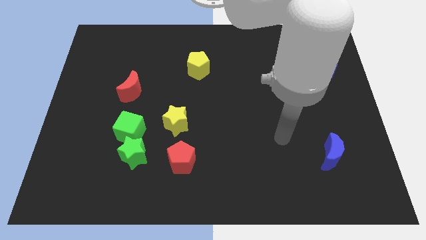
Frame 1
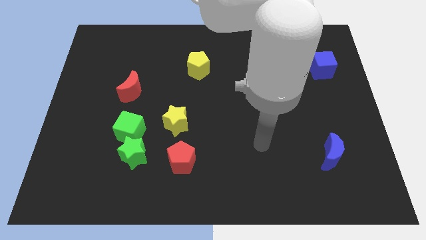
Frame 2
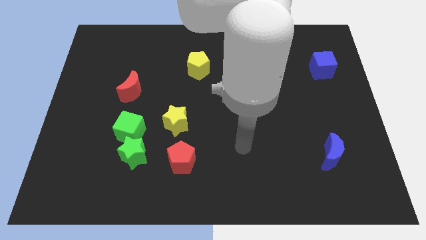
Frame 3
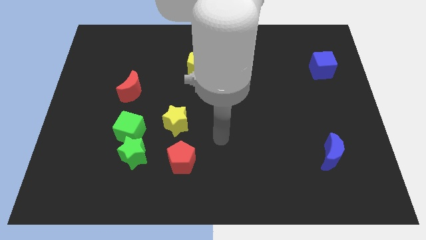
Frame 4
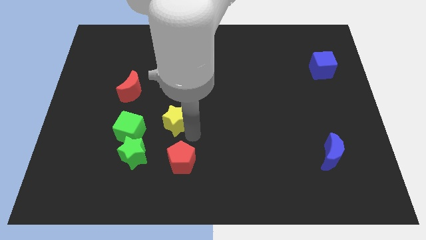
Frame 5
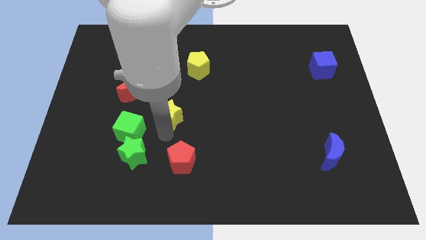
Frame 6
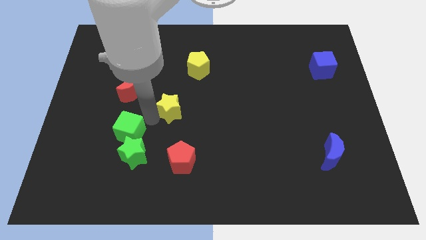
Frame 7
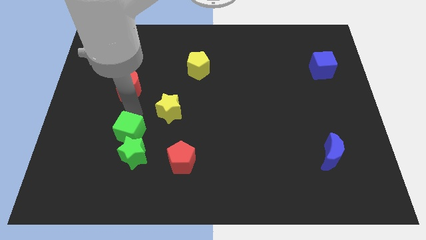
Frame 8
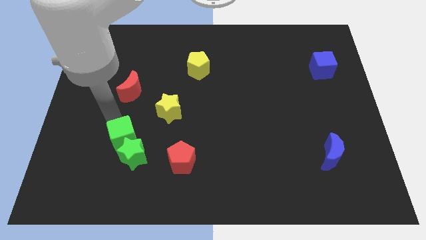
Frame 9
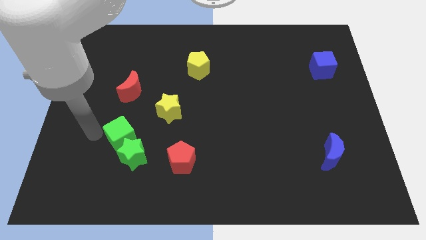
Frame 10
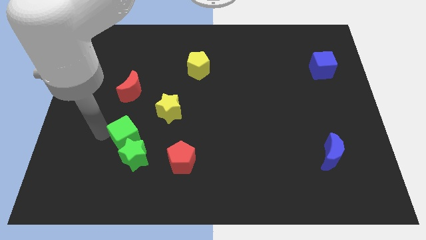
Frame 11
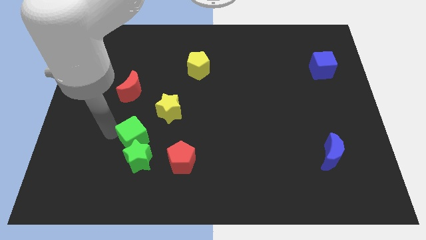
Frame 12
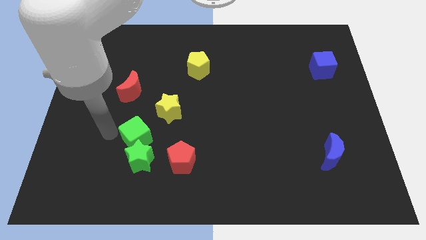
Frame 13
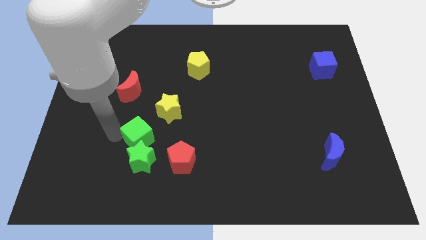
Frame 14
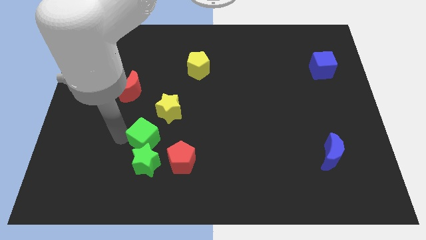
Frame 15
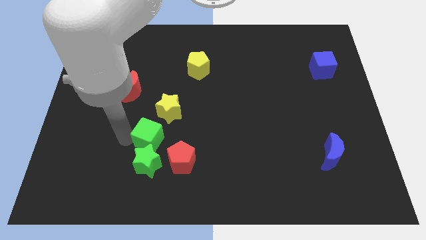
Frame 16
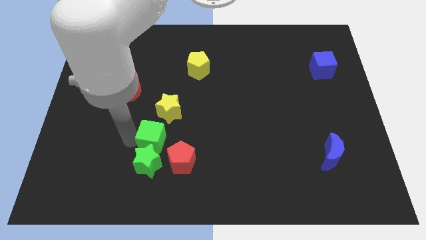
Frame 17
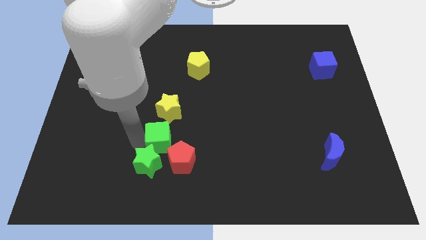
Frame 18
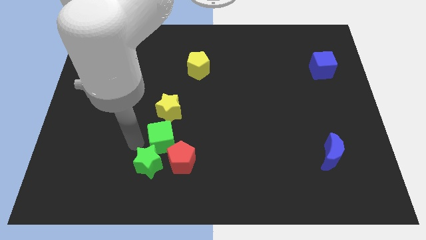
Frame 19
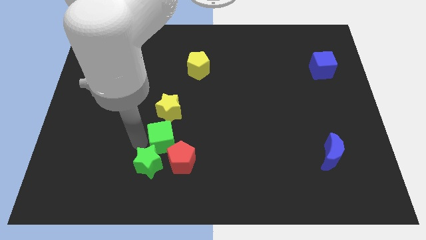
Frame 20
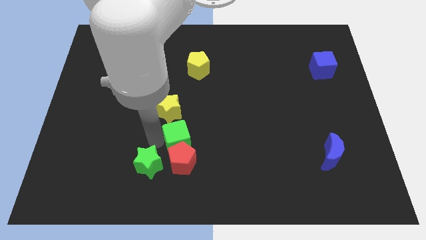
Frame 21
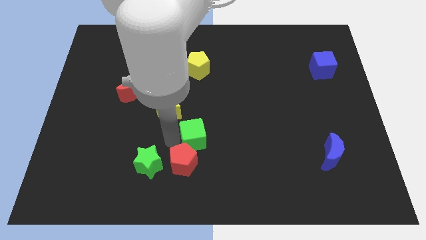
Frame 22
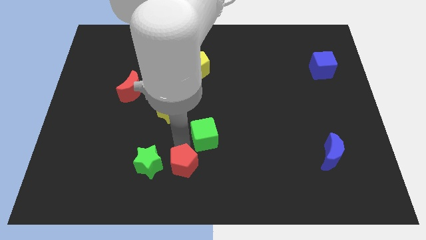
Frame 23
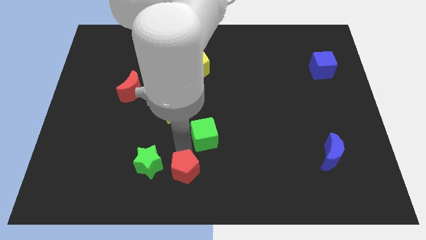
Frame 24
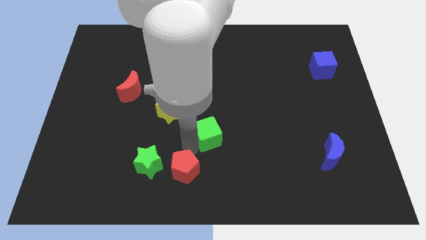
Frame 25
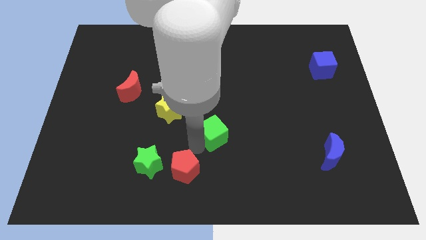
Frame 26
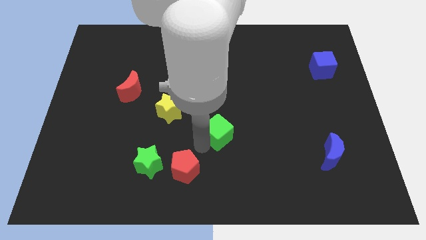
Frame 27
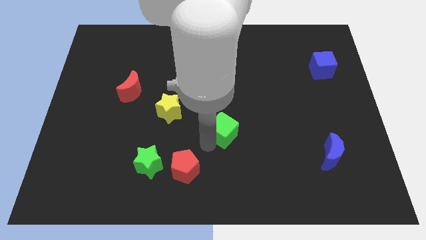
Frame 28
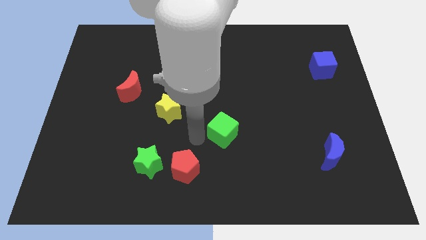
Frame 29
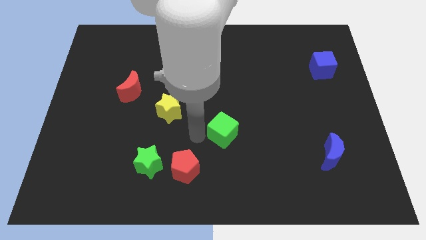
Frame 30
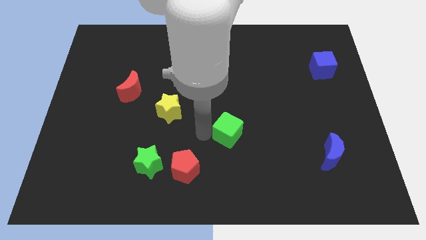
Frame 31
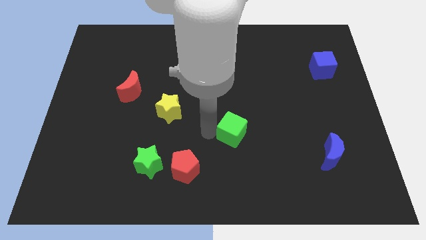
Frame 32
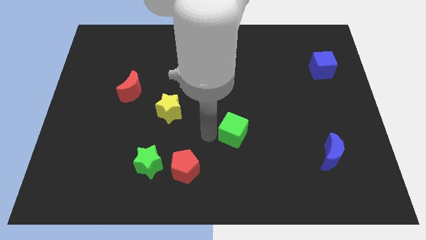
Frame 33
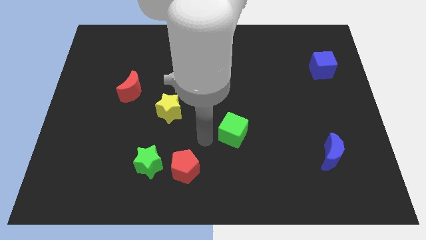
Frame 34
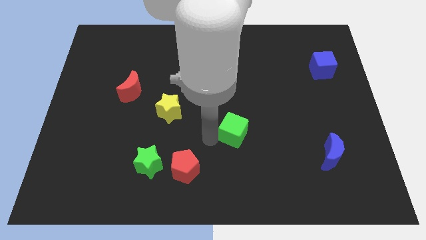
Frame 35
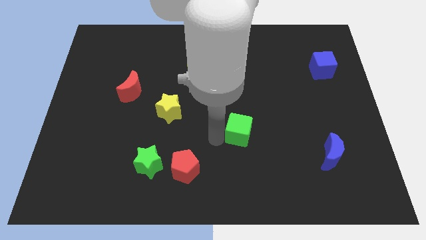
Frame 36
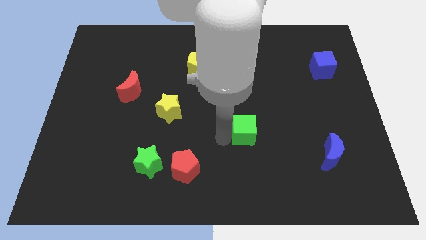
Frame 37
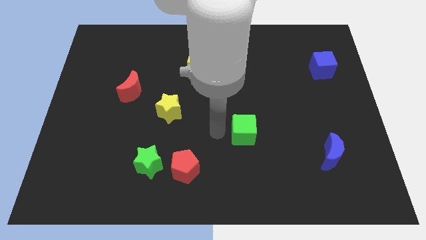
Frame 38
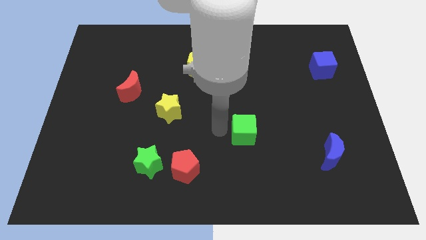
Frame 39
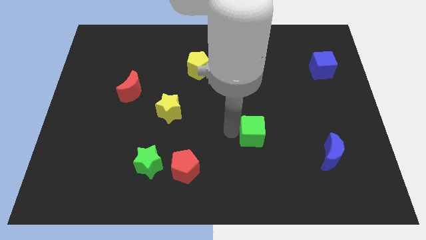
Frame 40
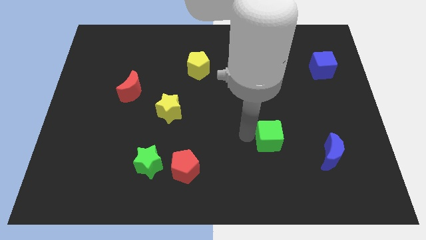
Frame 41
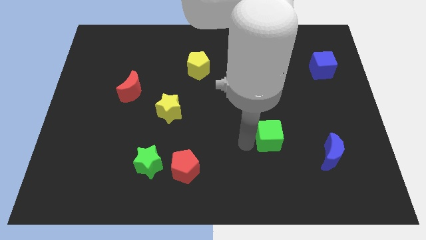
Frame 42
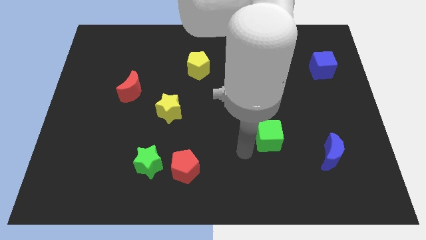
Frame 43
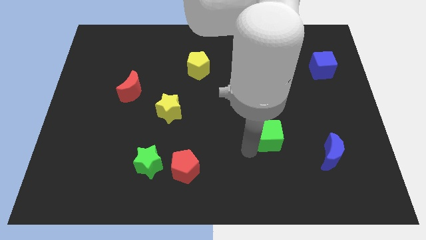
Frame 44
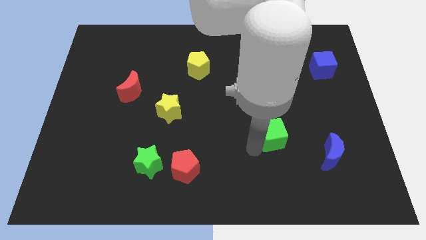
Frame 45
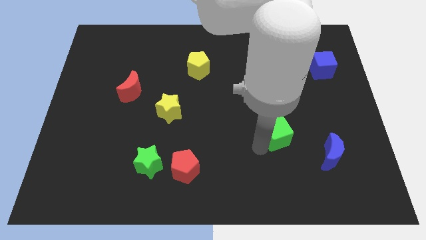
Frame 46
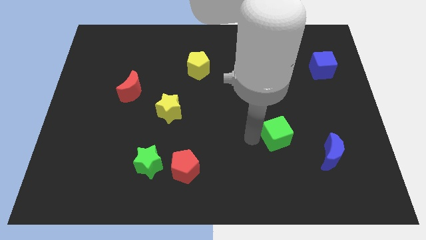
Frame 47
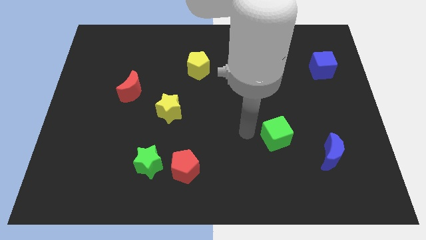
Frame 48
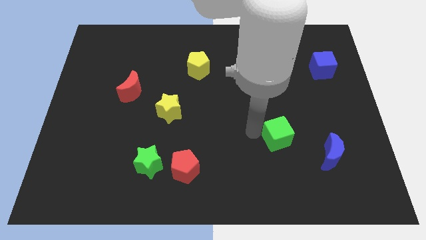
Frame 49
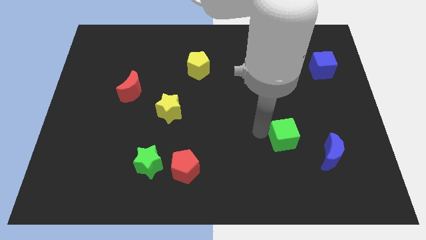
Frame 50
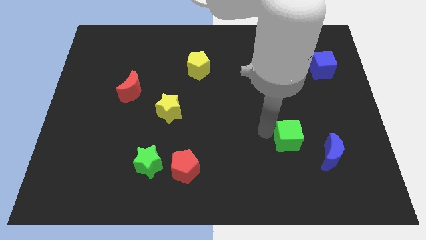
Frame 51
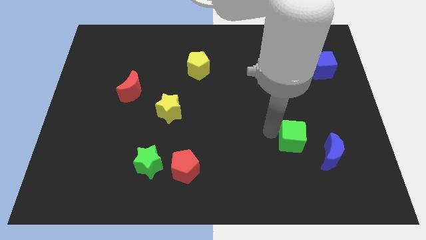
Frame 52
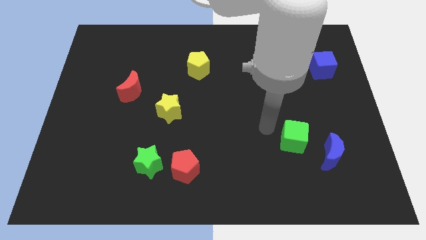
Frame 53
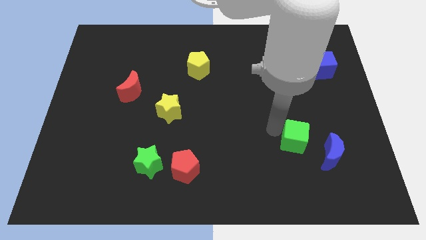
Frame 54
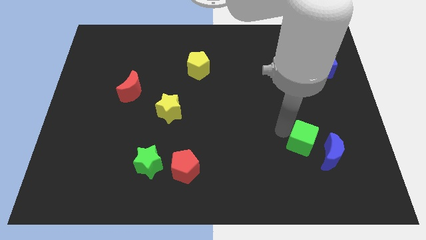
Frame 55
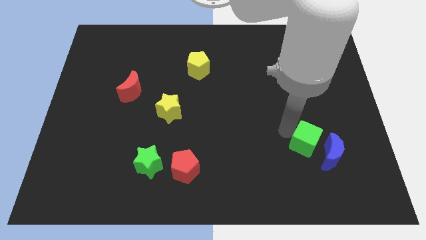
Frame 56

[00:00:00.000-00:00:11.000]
slide the green cube to the blue moon

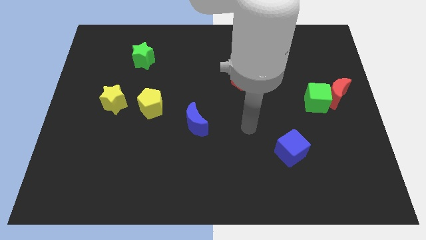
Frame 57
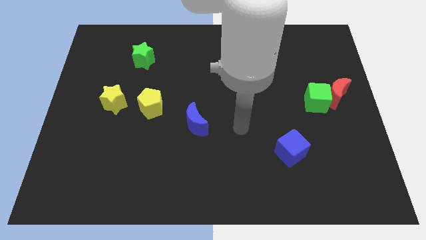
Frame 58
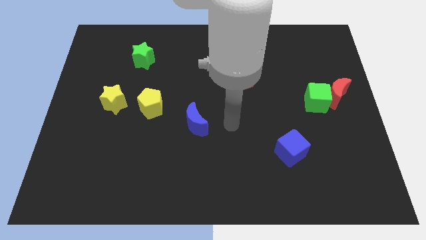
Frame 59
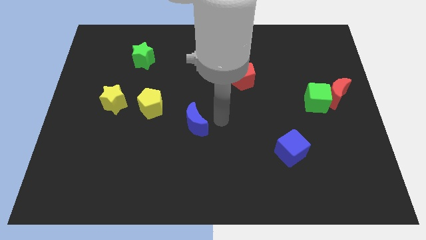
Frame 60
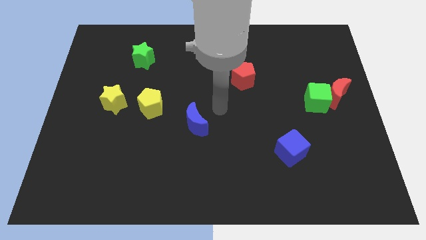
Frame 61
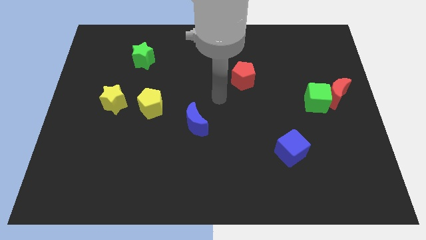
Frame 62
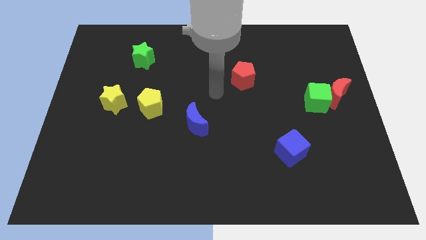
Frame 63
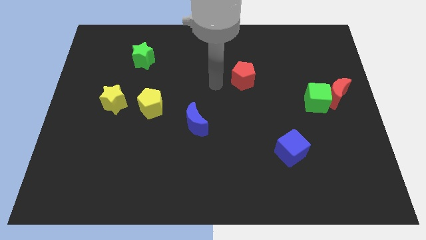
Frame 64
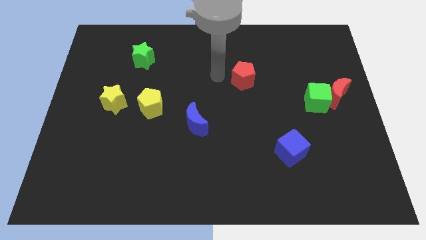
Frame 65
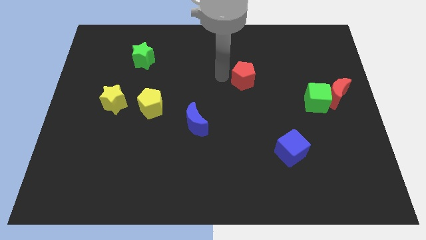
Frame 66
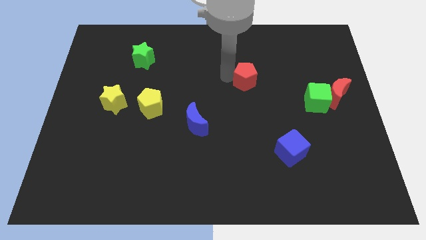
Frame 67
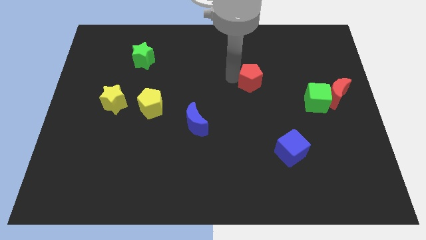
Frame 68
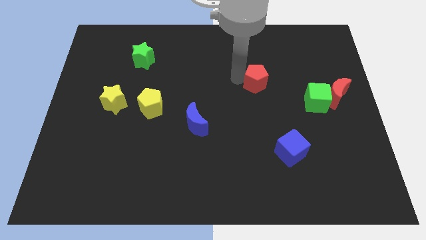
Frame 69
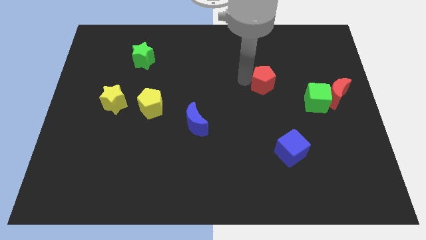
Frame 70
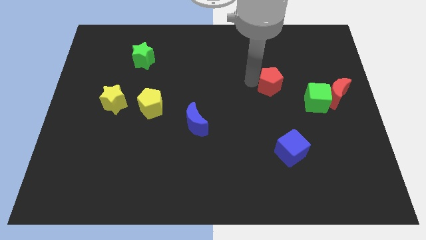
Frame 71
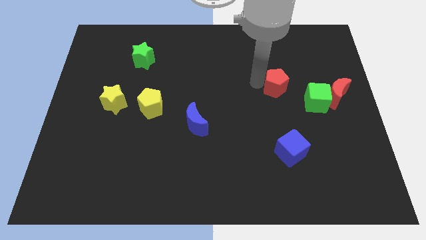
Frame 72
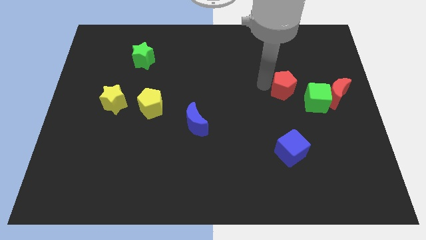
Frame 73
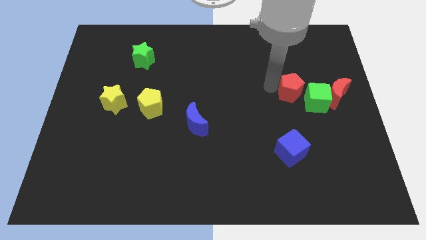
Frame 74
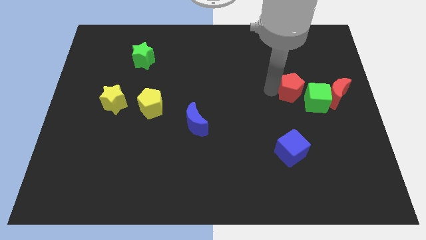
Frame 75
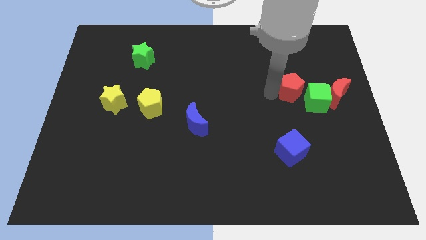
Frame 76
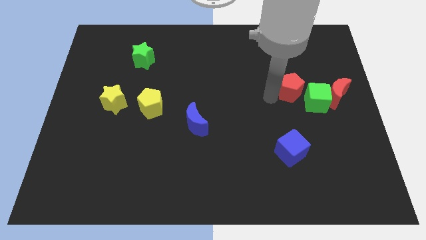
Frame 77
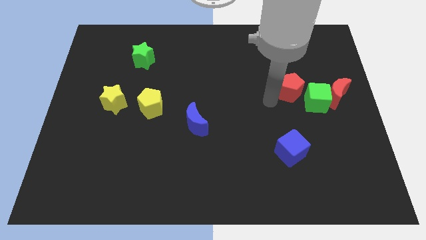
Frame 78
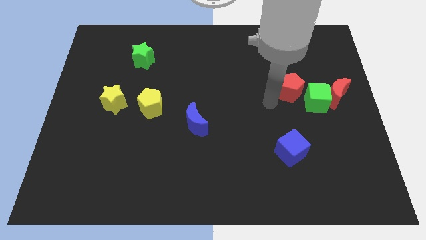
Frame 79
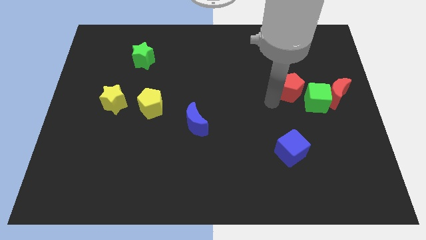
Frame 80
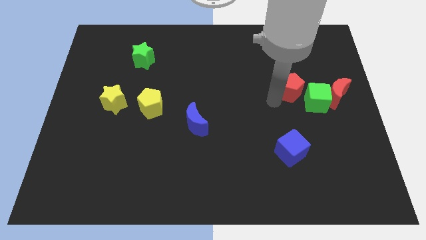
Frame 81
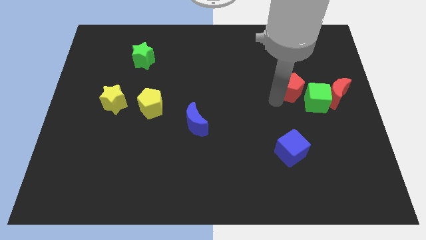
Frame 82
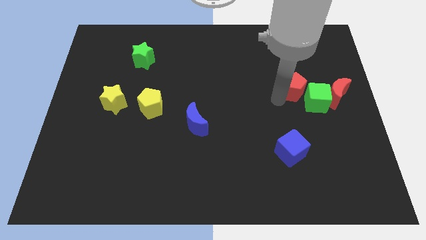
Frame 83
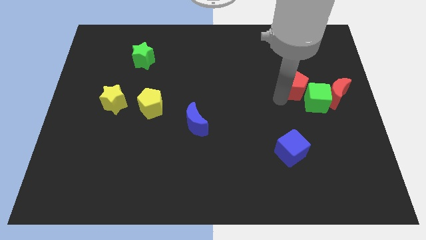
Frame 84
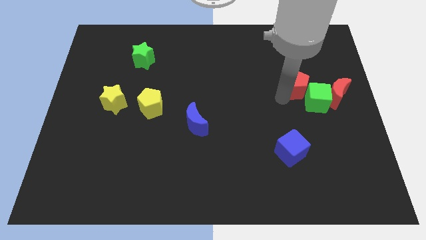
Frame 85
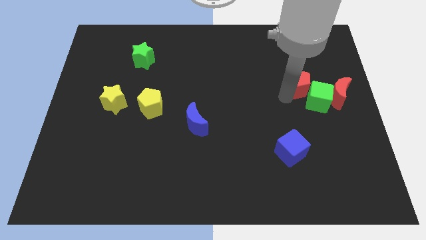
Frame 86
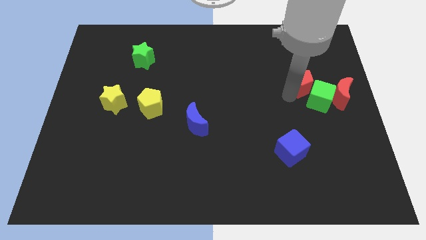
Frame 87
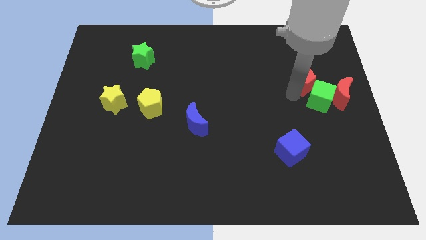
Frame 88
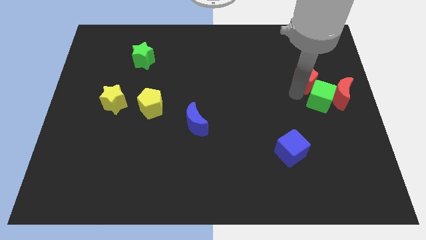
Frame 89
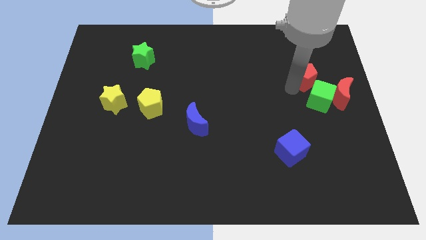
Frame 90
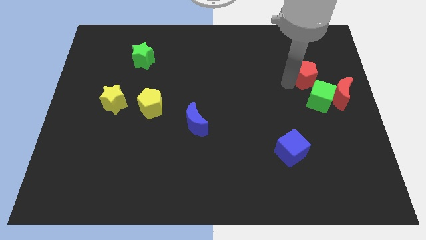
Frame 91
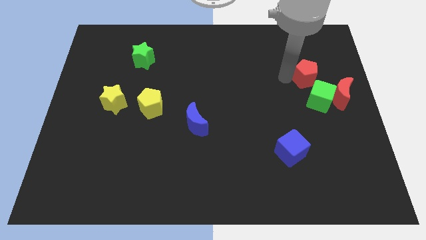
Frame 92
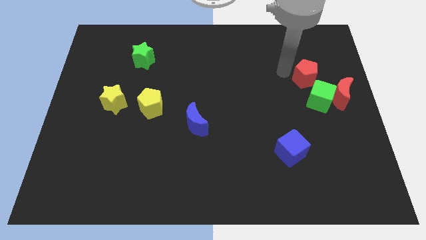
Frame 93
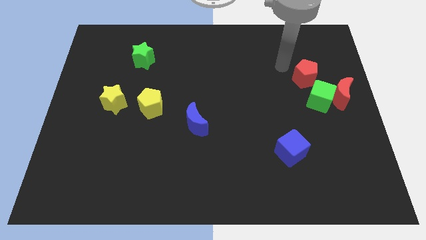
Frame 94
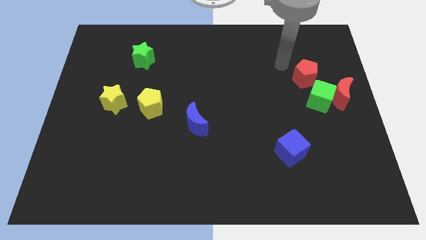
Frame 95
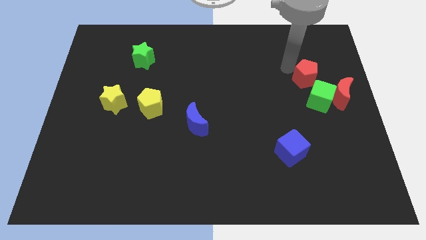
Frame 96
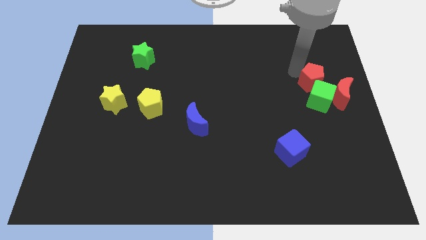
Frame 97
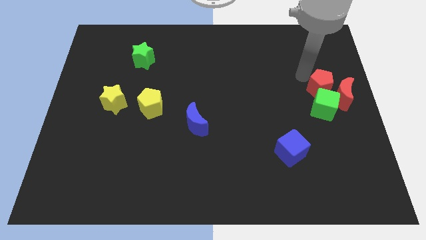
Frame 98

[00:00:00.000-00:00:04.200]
put the red pentagon next to the red moon
